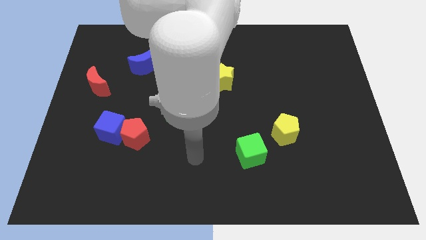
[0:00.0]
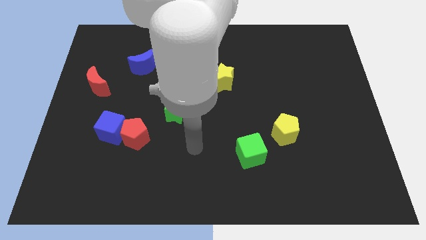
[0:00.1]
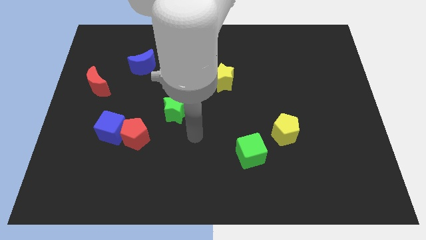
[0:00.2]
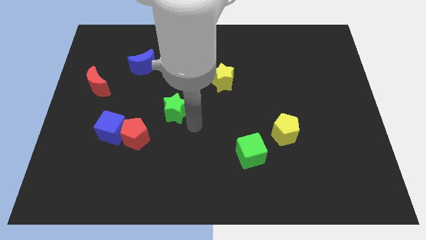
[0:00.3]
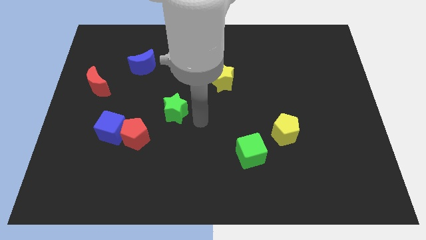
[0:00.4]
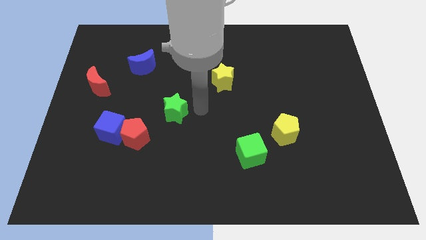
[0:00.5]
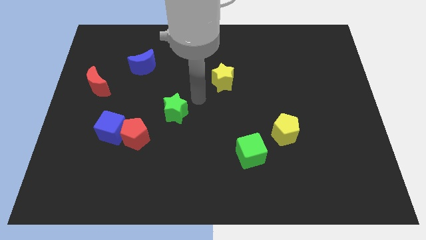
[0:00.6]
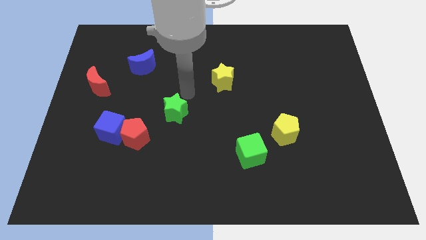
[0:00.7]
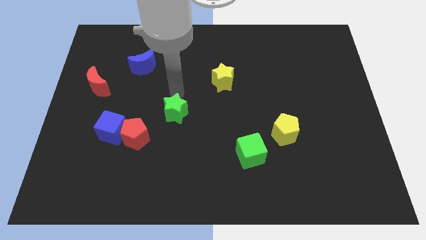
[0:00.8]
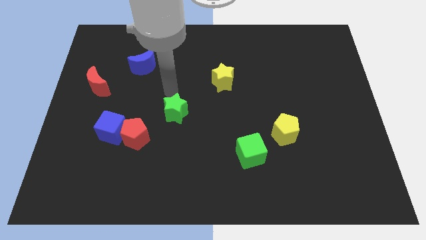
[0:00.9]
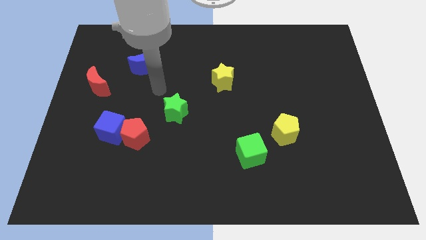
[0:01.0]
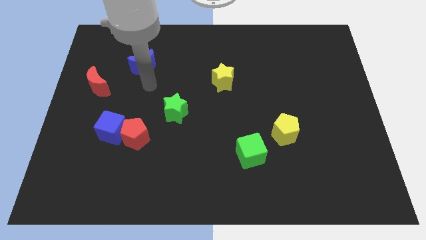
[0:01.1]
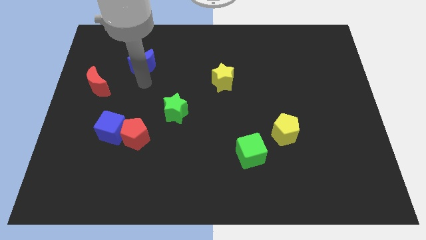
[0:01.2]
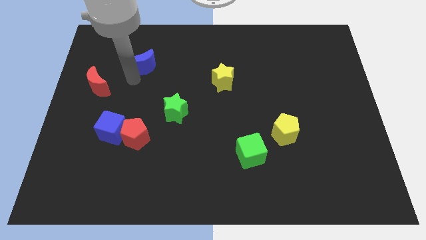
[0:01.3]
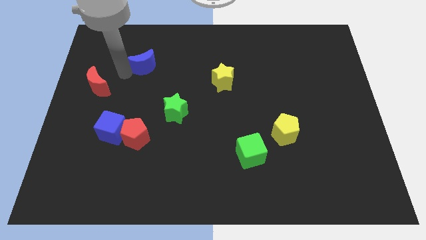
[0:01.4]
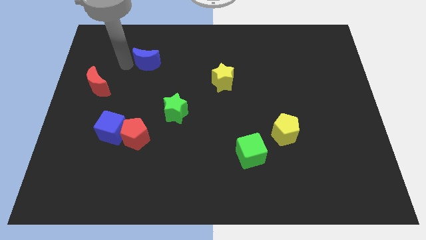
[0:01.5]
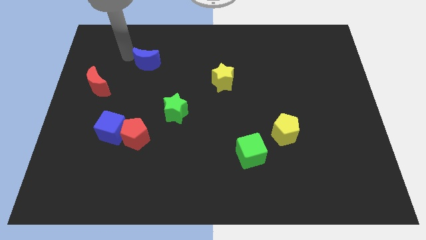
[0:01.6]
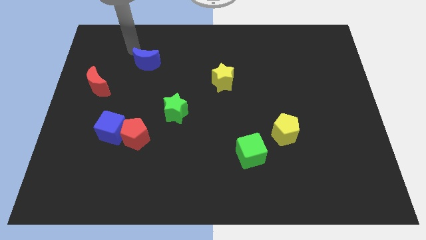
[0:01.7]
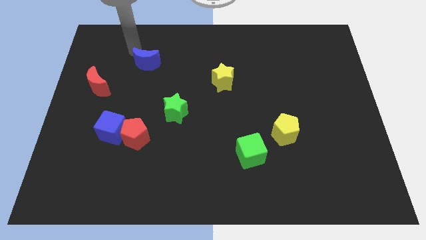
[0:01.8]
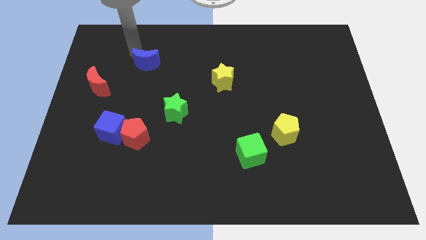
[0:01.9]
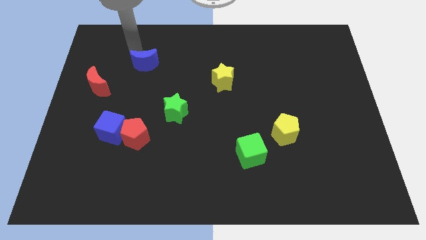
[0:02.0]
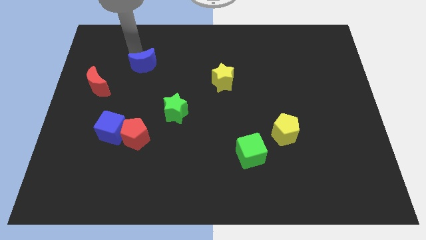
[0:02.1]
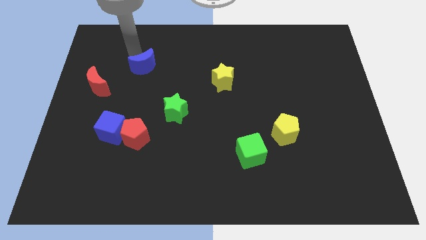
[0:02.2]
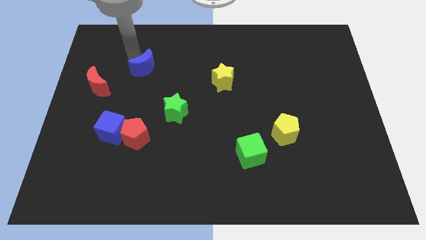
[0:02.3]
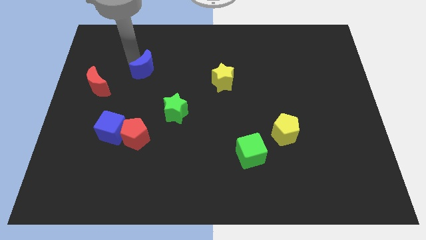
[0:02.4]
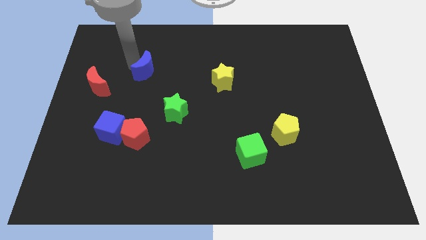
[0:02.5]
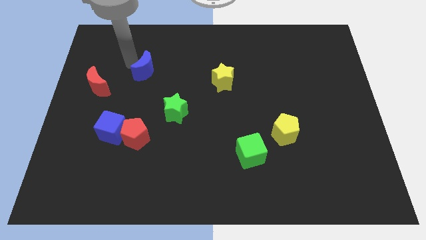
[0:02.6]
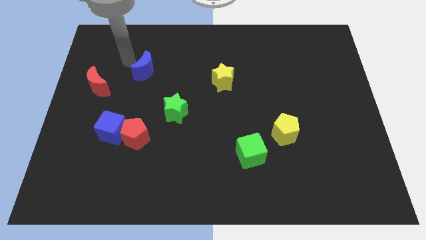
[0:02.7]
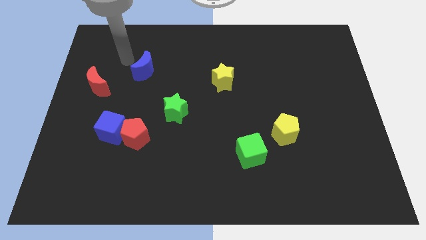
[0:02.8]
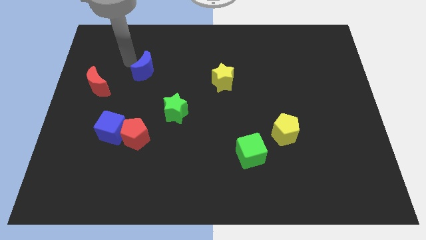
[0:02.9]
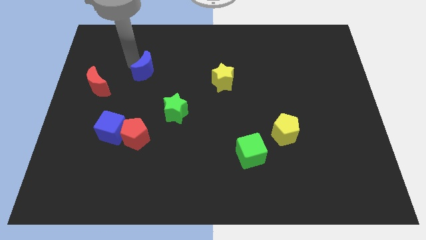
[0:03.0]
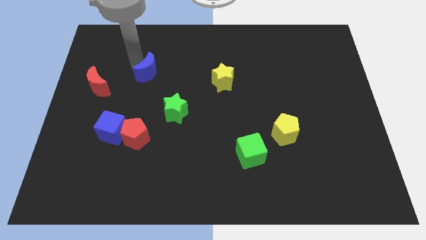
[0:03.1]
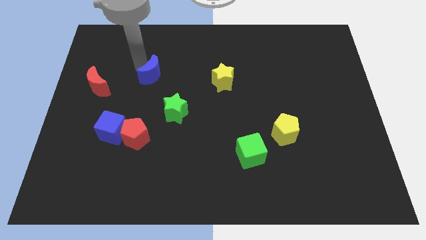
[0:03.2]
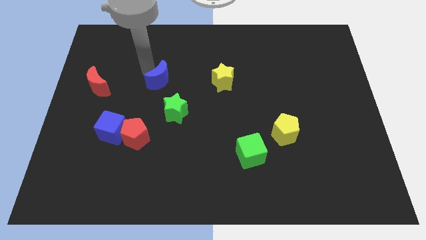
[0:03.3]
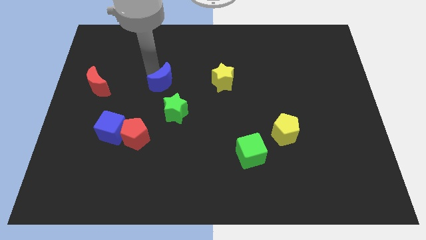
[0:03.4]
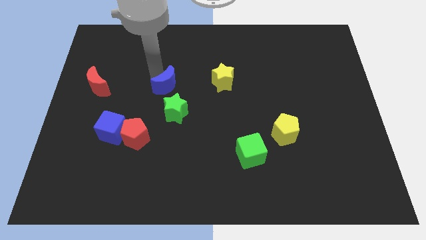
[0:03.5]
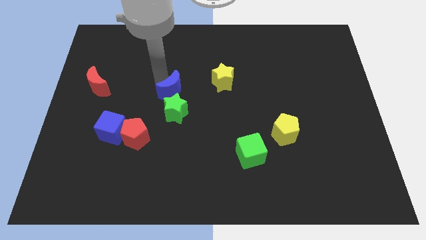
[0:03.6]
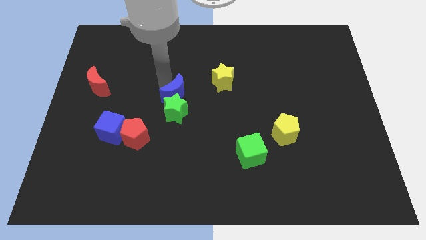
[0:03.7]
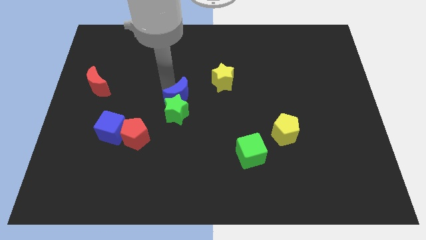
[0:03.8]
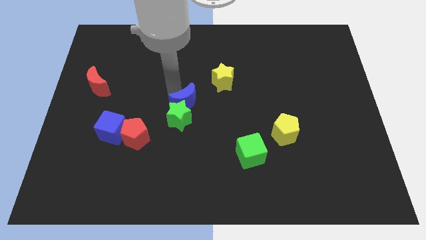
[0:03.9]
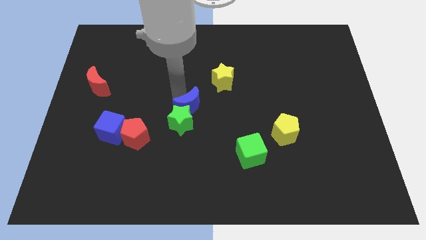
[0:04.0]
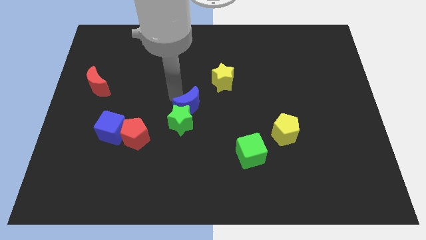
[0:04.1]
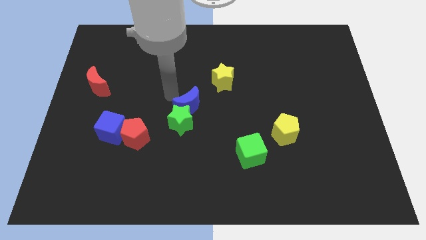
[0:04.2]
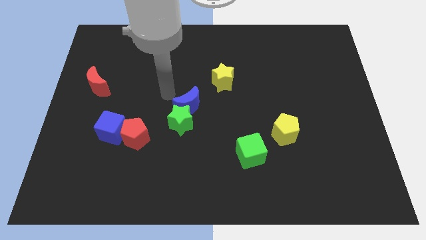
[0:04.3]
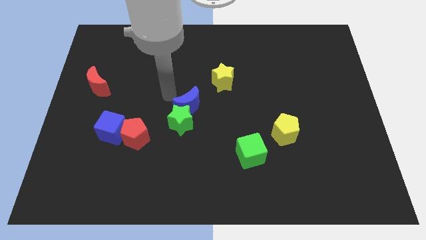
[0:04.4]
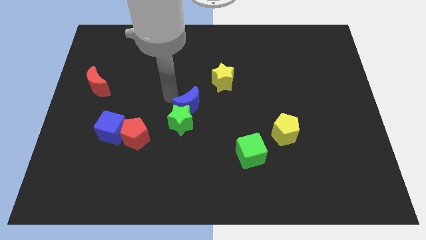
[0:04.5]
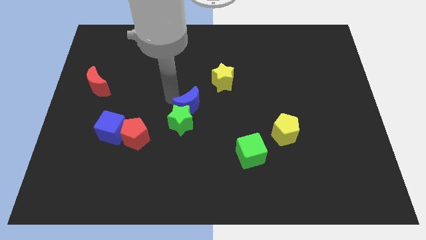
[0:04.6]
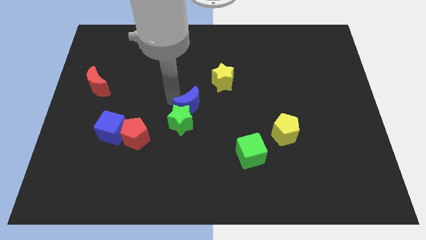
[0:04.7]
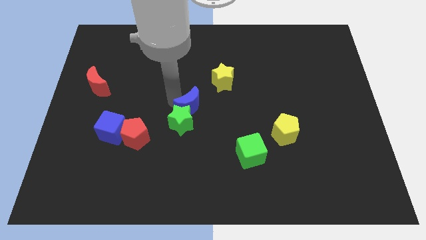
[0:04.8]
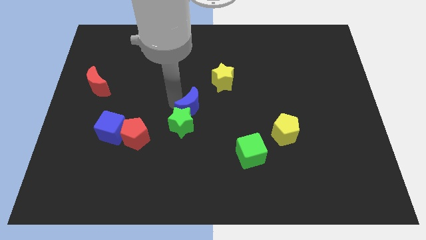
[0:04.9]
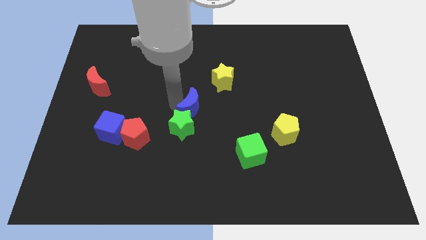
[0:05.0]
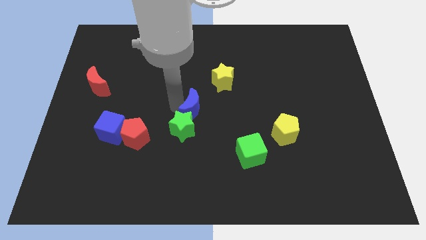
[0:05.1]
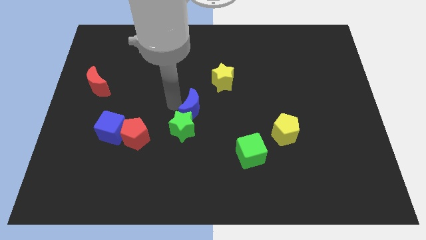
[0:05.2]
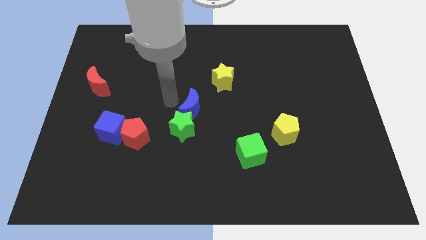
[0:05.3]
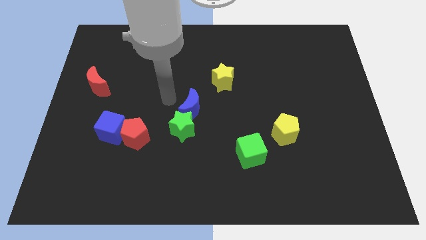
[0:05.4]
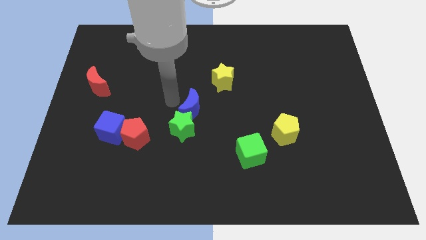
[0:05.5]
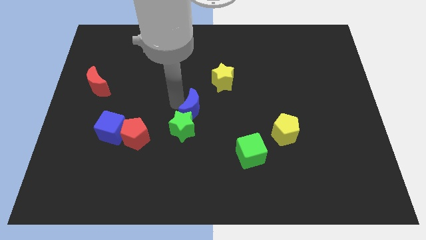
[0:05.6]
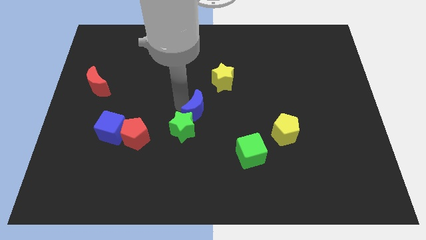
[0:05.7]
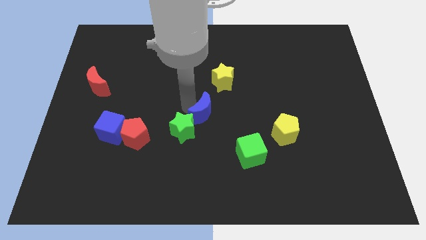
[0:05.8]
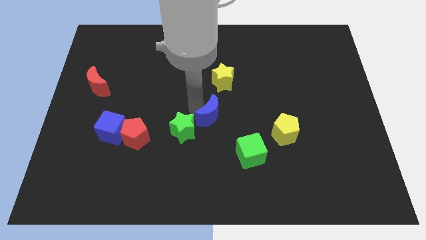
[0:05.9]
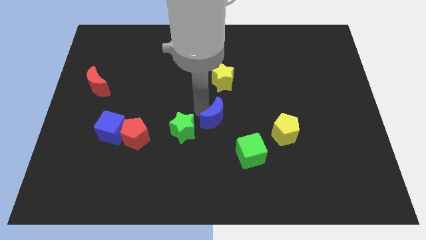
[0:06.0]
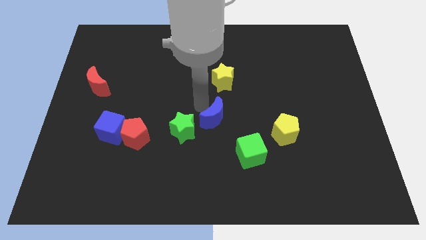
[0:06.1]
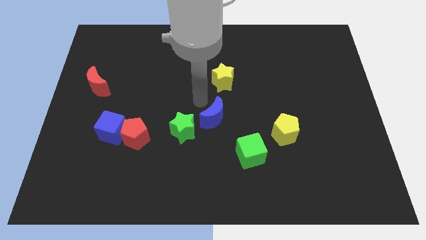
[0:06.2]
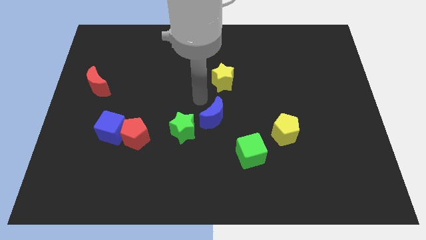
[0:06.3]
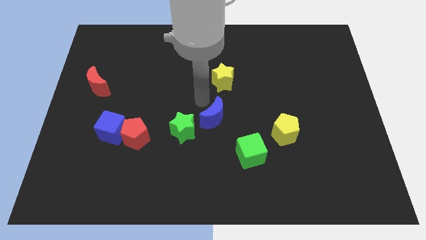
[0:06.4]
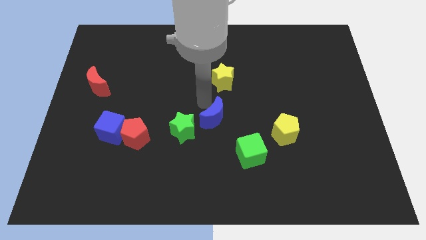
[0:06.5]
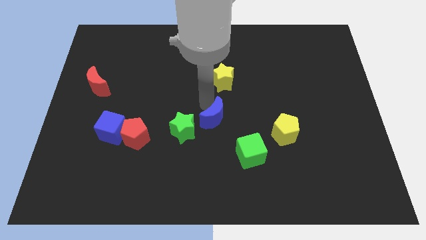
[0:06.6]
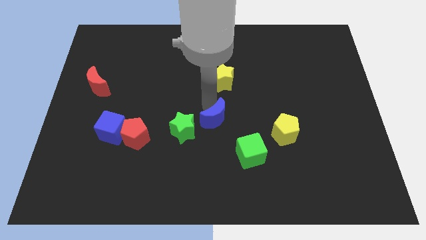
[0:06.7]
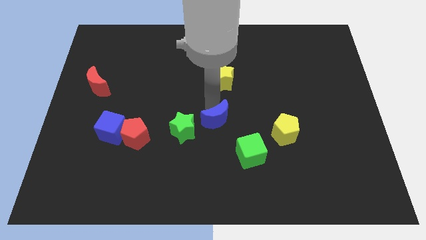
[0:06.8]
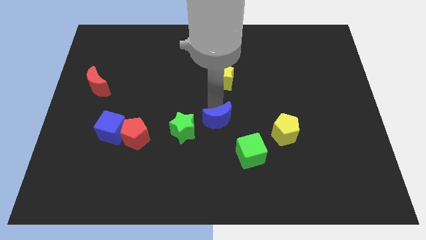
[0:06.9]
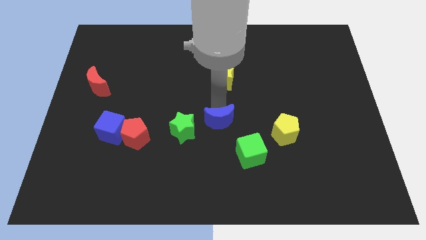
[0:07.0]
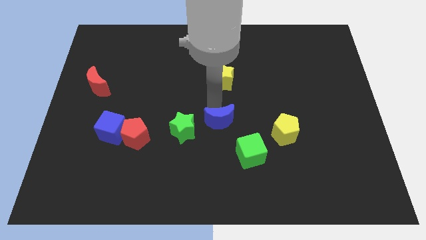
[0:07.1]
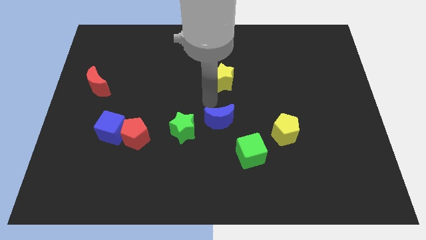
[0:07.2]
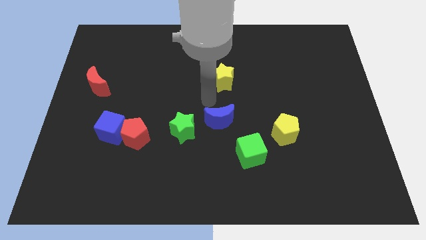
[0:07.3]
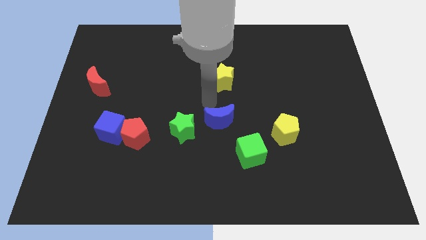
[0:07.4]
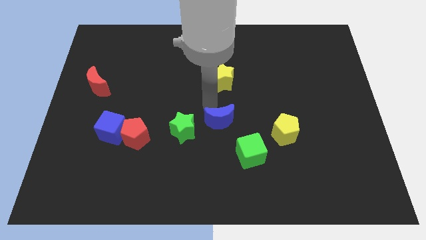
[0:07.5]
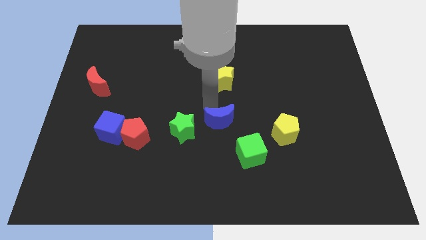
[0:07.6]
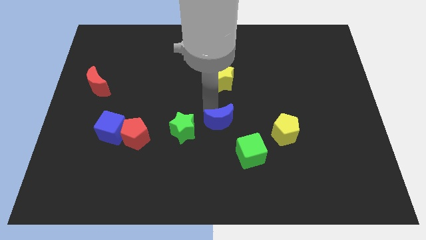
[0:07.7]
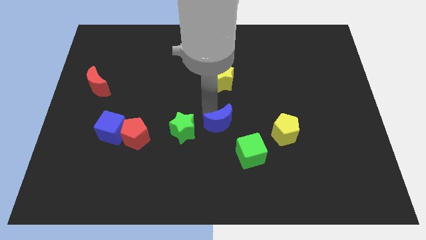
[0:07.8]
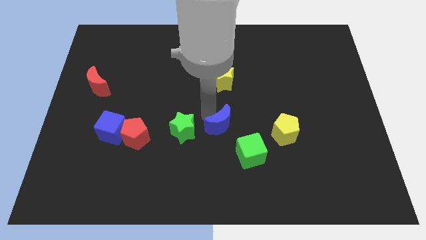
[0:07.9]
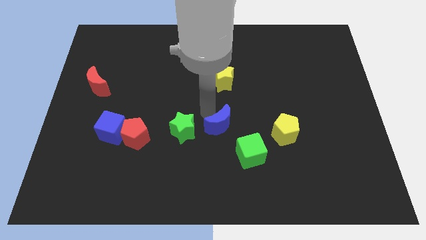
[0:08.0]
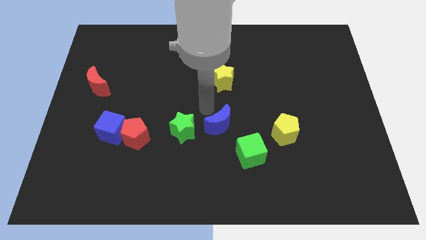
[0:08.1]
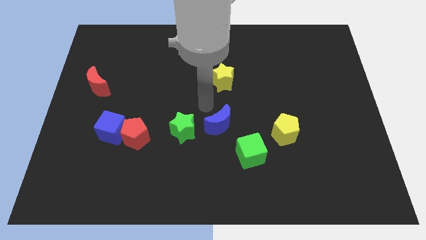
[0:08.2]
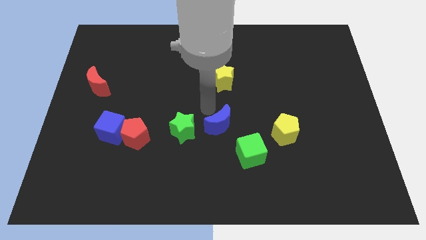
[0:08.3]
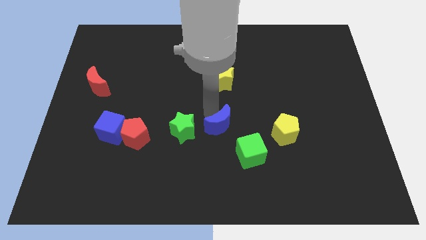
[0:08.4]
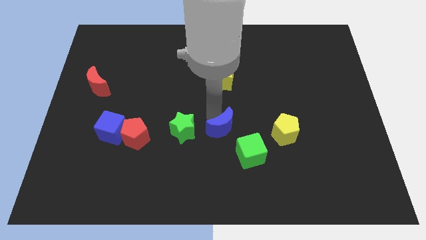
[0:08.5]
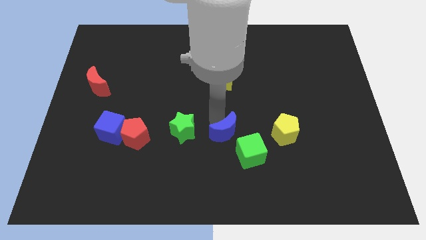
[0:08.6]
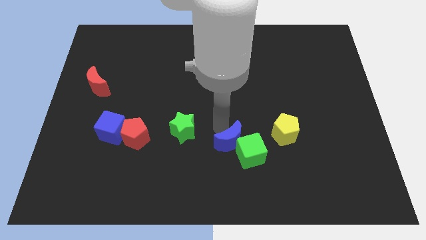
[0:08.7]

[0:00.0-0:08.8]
slide the blue moon close to the green cube
